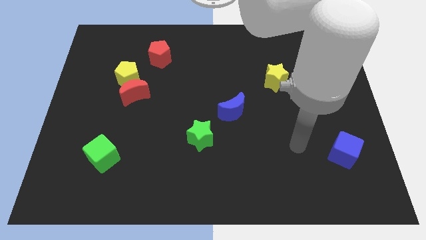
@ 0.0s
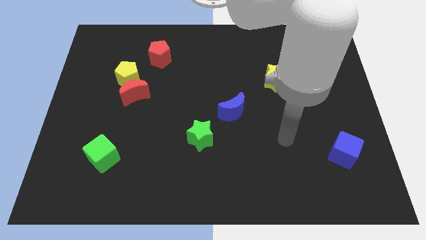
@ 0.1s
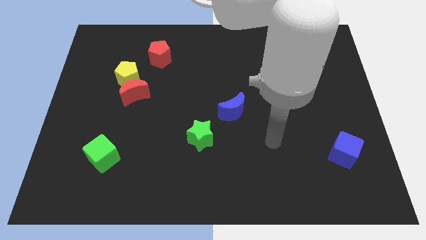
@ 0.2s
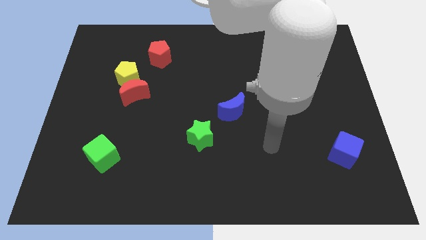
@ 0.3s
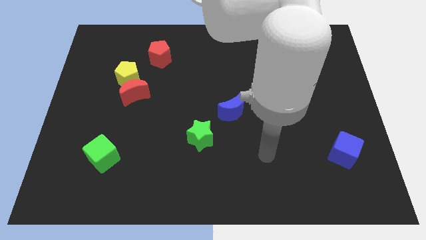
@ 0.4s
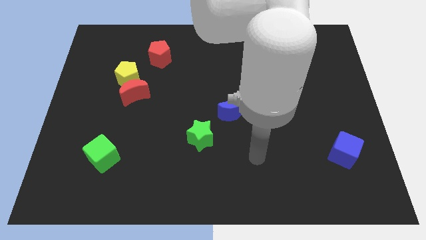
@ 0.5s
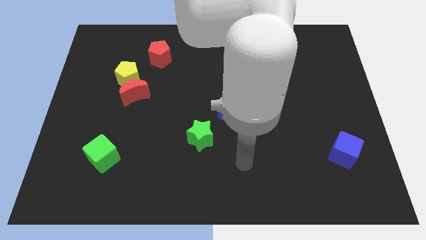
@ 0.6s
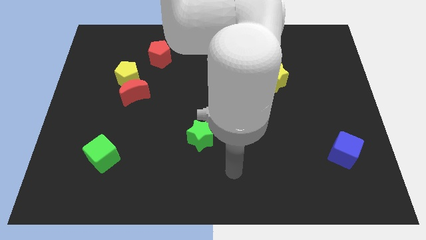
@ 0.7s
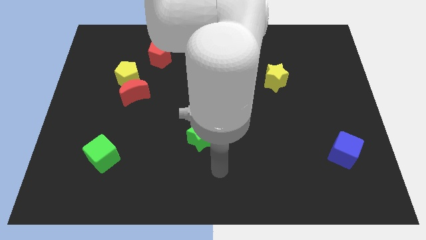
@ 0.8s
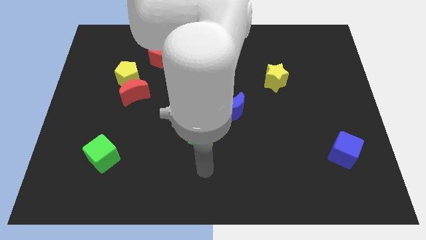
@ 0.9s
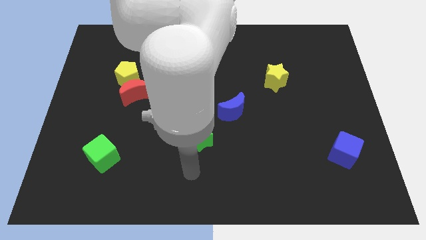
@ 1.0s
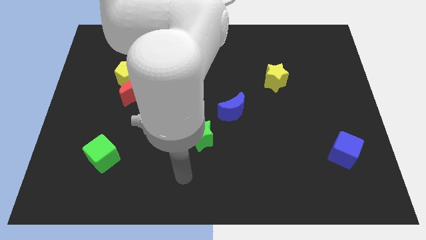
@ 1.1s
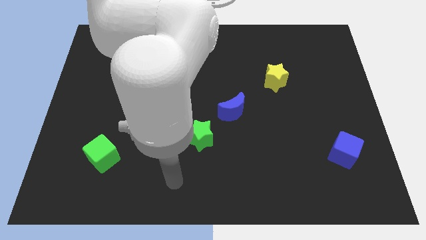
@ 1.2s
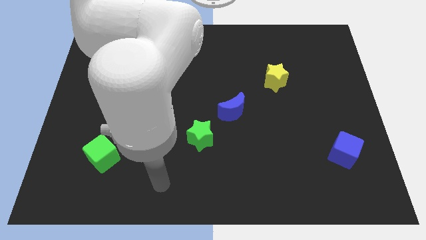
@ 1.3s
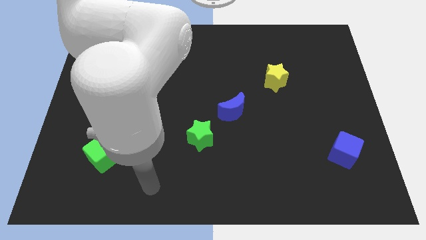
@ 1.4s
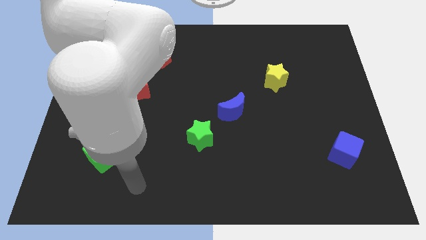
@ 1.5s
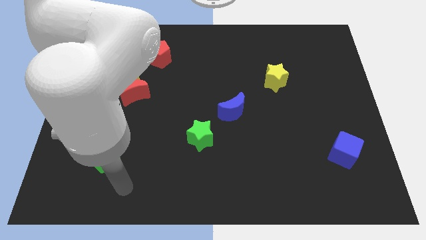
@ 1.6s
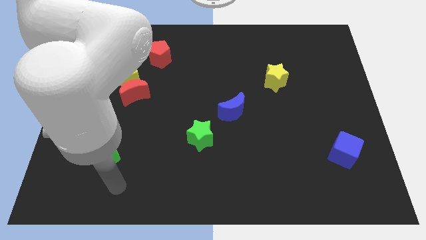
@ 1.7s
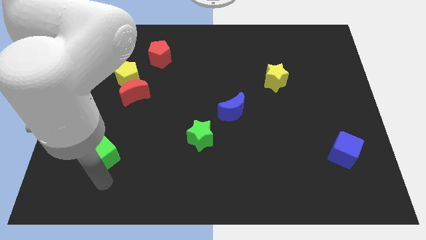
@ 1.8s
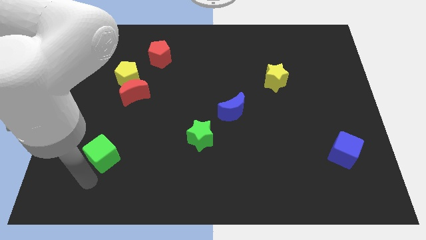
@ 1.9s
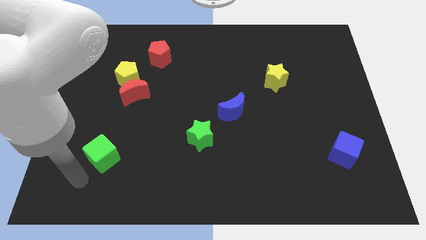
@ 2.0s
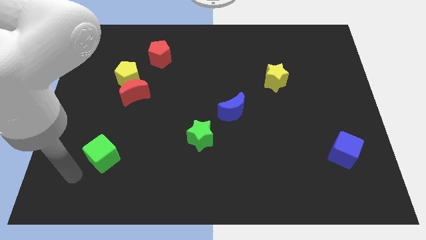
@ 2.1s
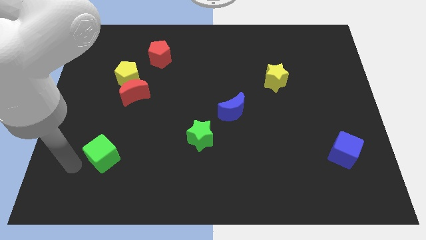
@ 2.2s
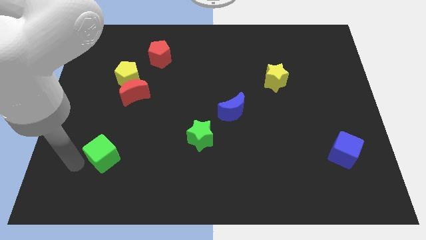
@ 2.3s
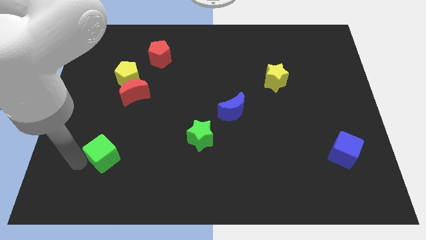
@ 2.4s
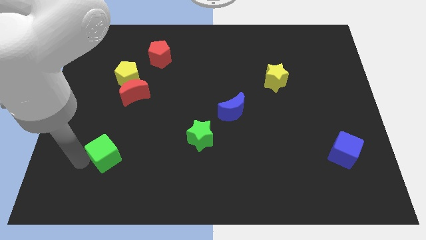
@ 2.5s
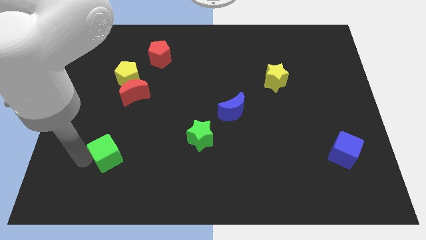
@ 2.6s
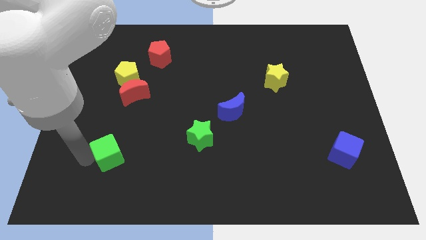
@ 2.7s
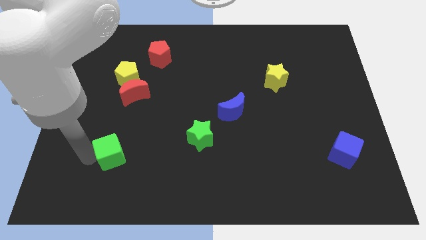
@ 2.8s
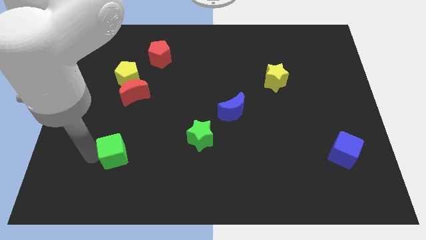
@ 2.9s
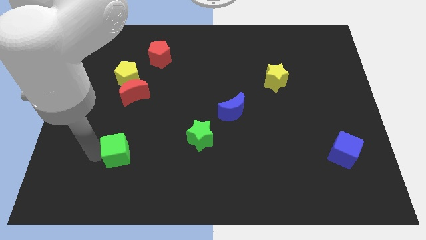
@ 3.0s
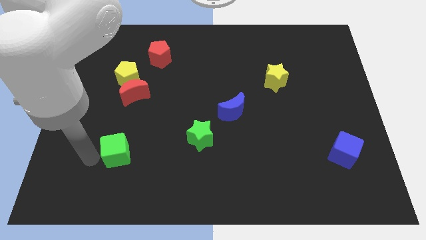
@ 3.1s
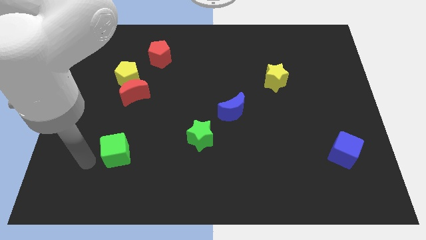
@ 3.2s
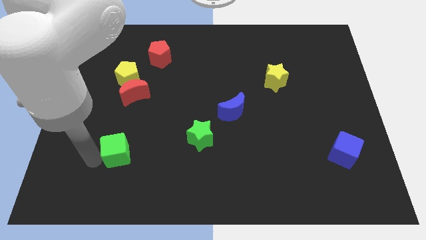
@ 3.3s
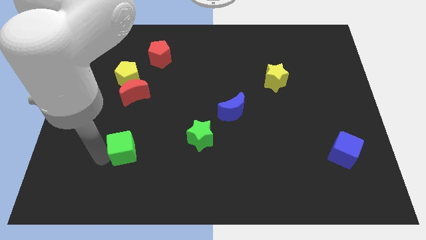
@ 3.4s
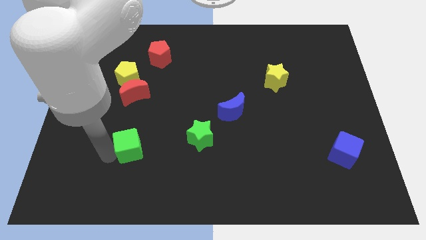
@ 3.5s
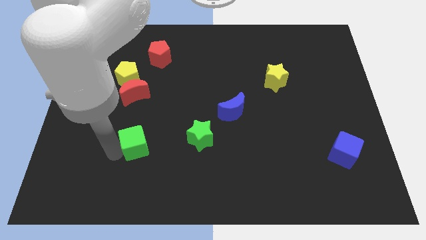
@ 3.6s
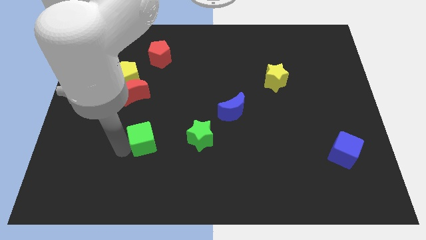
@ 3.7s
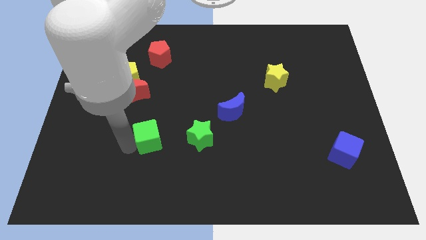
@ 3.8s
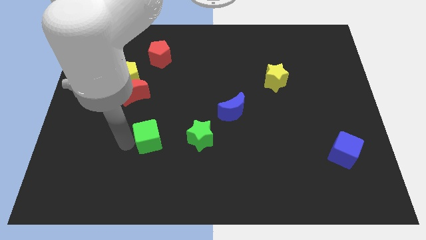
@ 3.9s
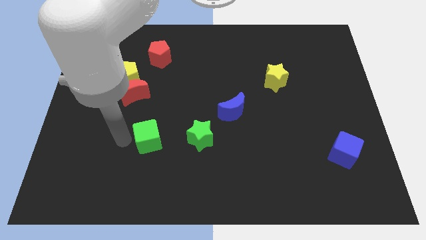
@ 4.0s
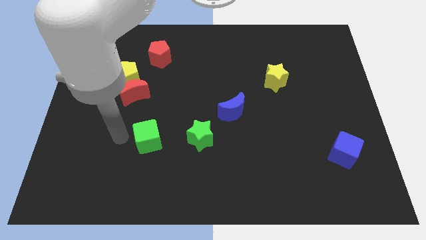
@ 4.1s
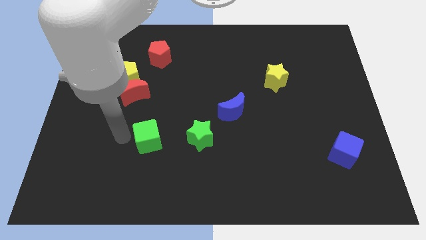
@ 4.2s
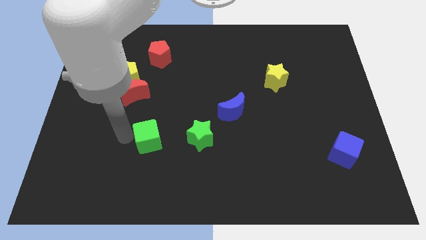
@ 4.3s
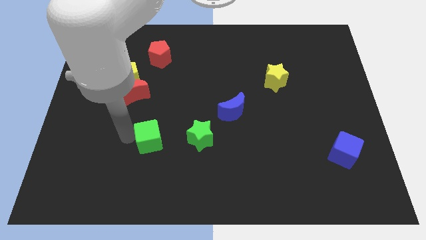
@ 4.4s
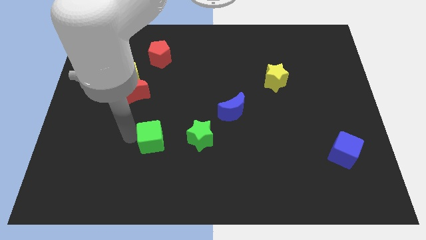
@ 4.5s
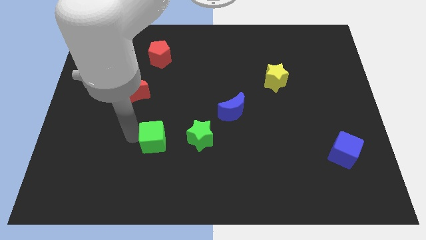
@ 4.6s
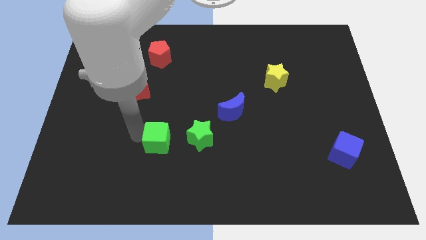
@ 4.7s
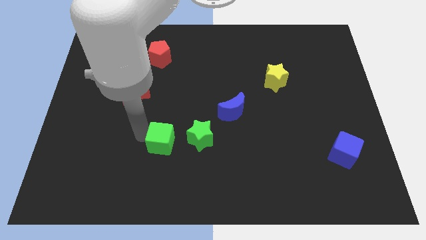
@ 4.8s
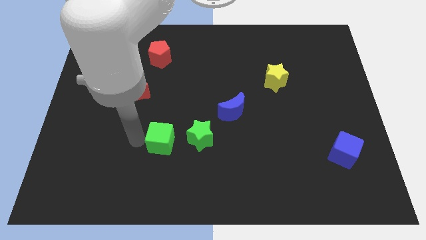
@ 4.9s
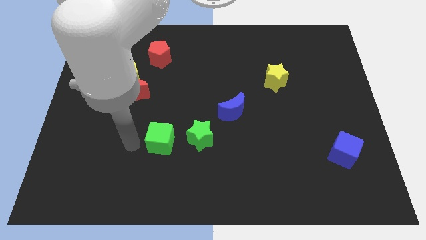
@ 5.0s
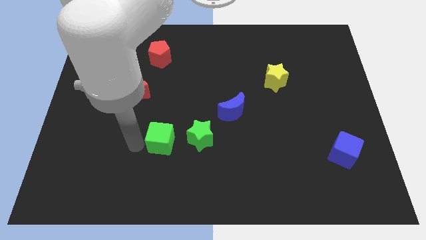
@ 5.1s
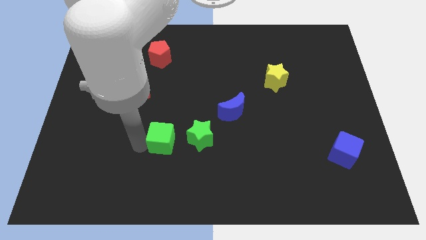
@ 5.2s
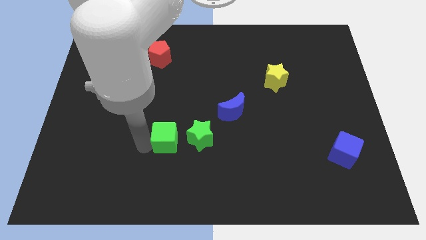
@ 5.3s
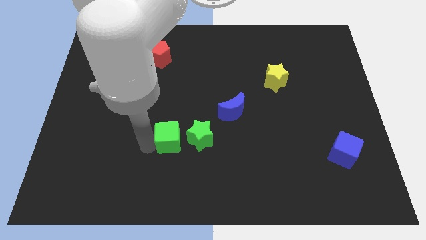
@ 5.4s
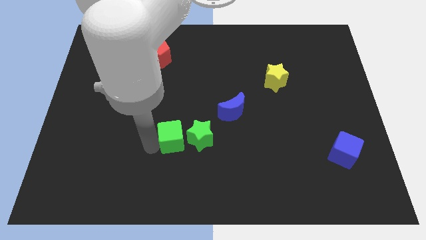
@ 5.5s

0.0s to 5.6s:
move the green cube to the green star

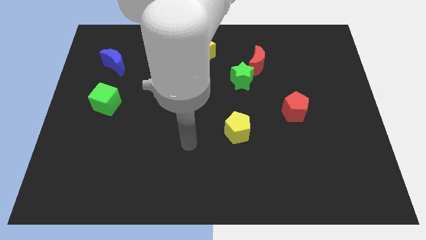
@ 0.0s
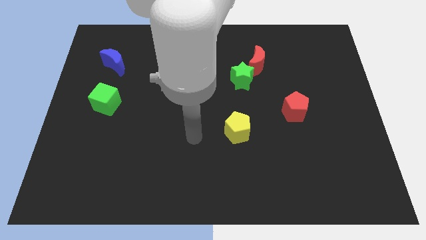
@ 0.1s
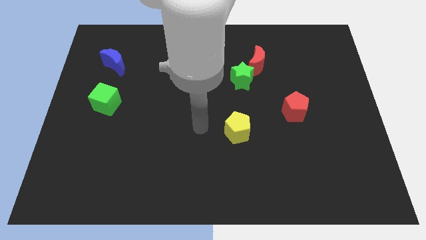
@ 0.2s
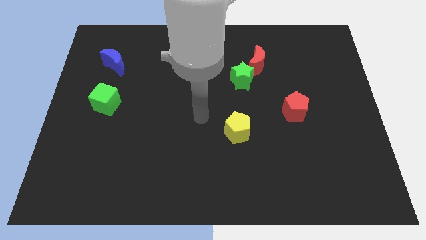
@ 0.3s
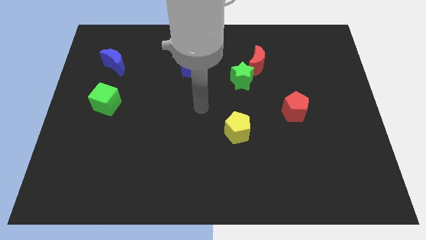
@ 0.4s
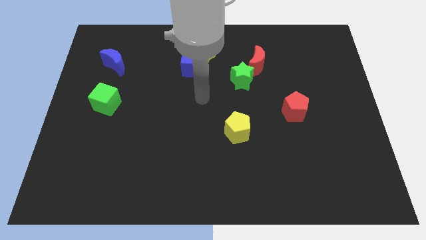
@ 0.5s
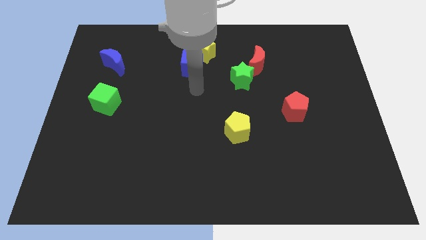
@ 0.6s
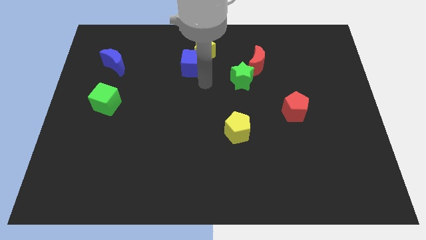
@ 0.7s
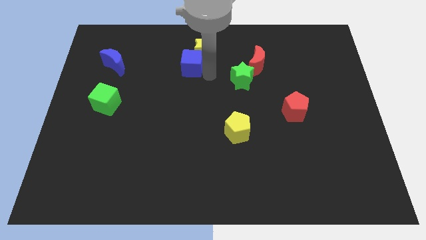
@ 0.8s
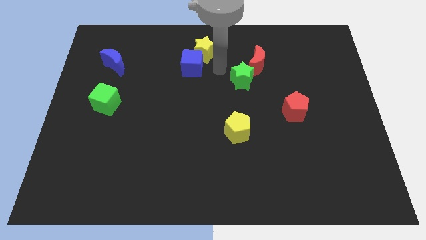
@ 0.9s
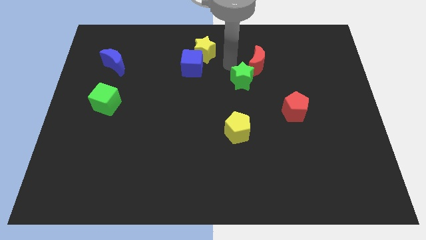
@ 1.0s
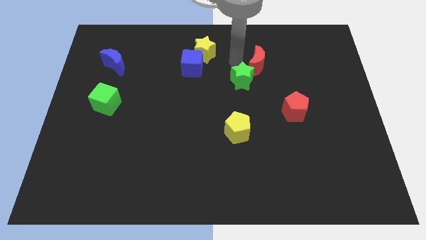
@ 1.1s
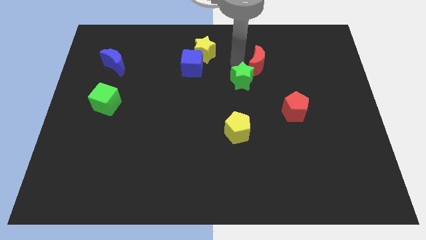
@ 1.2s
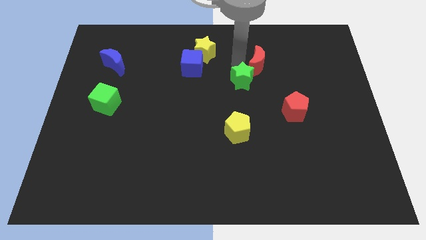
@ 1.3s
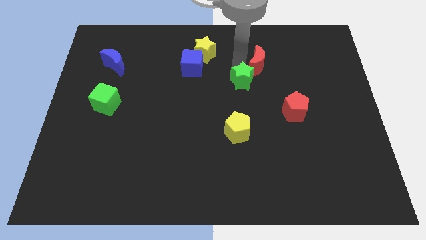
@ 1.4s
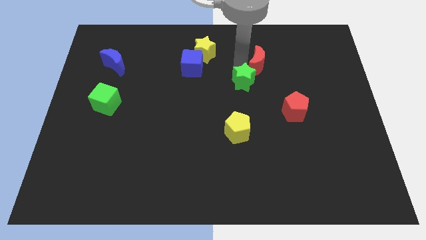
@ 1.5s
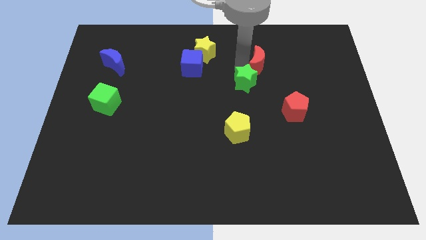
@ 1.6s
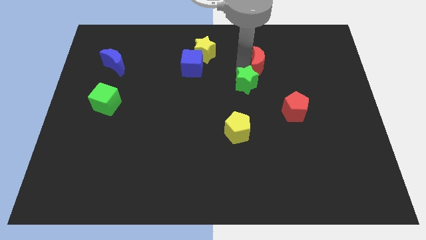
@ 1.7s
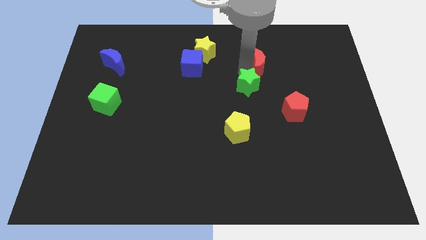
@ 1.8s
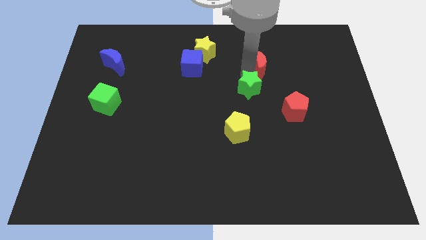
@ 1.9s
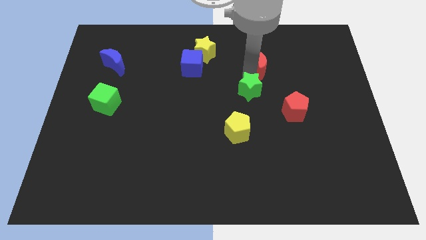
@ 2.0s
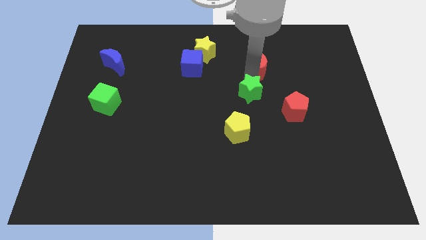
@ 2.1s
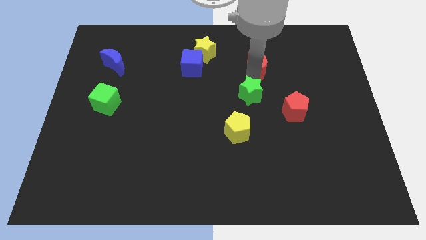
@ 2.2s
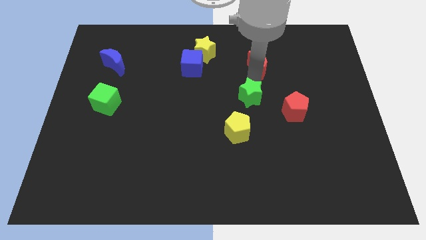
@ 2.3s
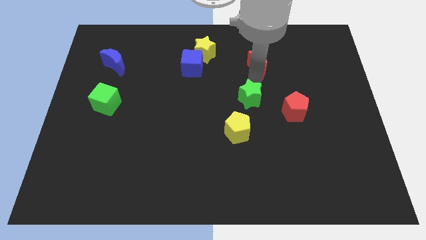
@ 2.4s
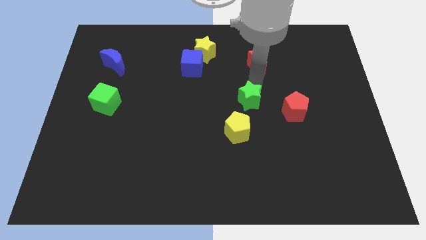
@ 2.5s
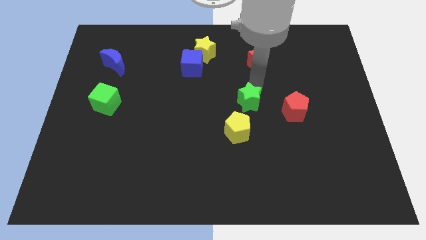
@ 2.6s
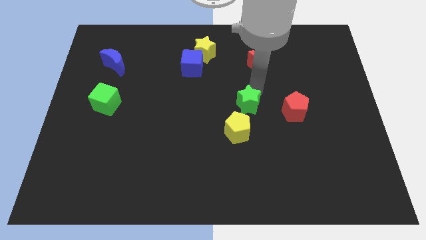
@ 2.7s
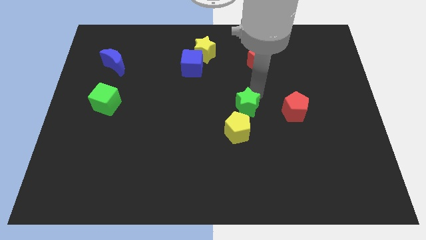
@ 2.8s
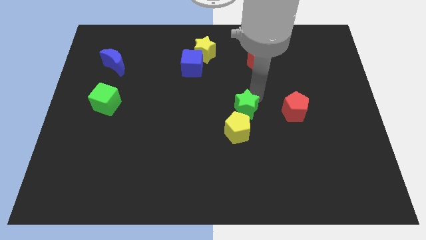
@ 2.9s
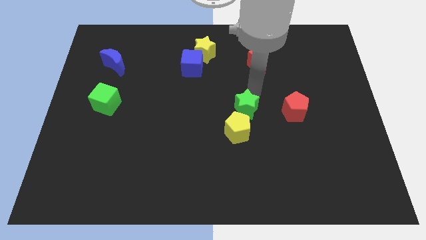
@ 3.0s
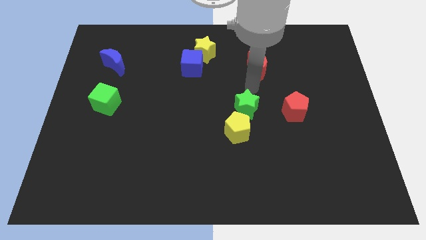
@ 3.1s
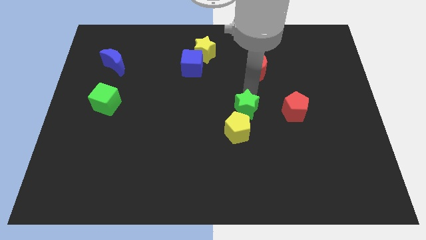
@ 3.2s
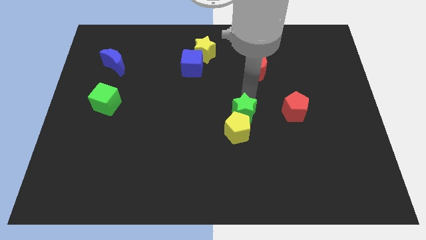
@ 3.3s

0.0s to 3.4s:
move the green star towards the yellow pentagon
